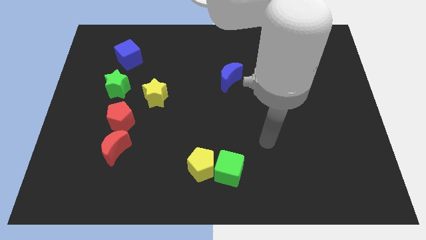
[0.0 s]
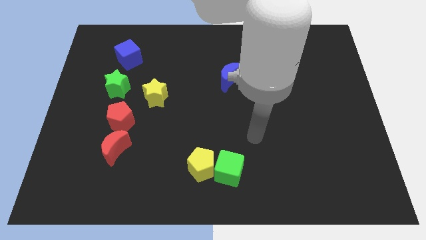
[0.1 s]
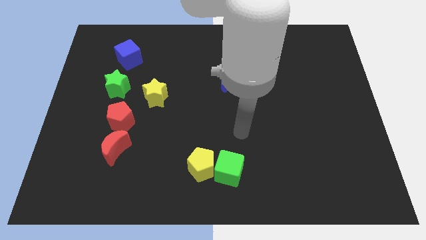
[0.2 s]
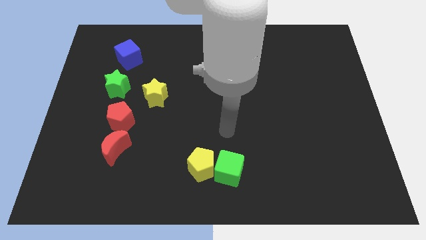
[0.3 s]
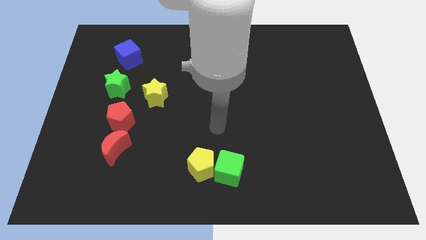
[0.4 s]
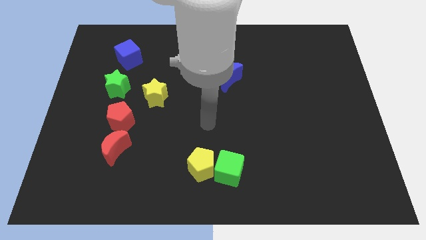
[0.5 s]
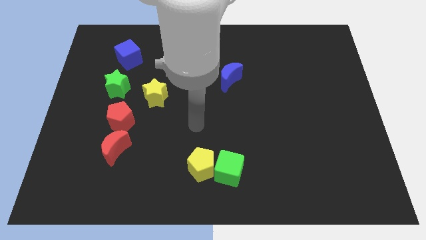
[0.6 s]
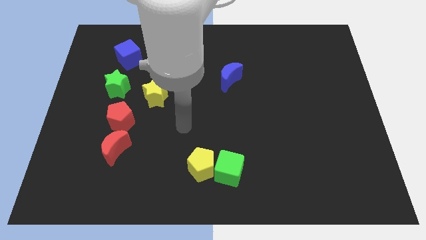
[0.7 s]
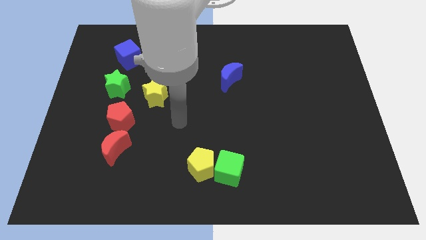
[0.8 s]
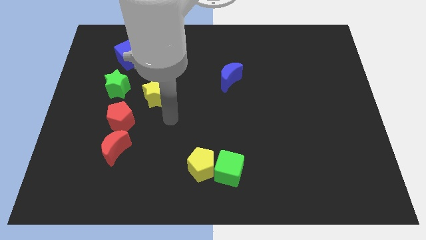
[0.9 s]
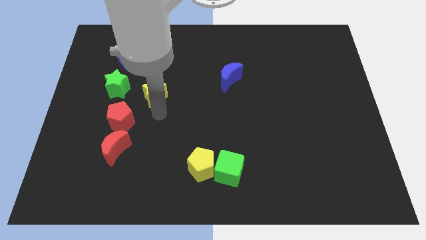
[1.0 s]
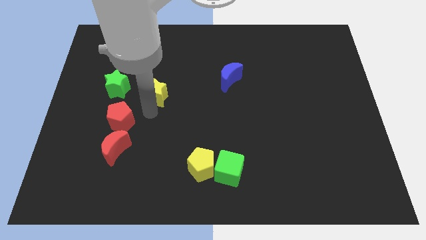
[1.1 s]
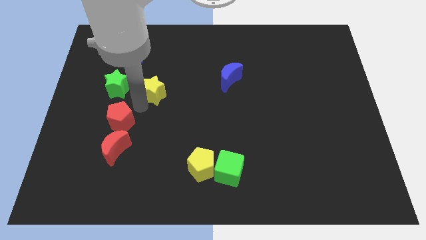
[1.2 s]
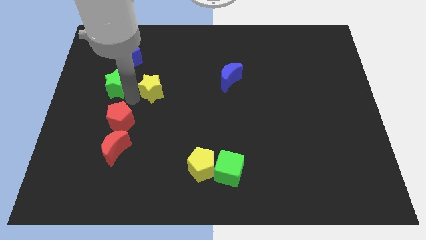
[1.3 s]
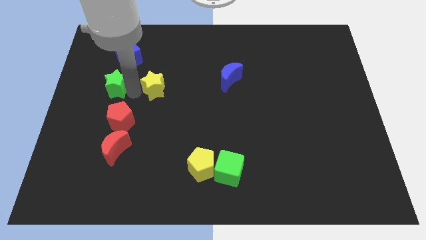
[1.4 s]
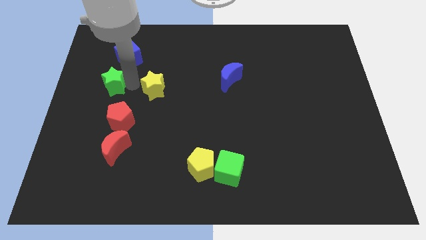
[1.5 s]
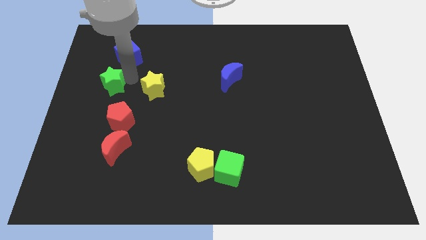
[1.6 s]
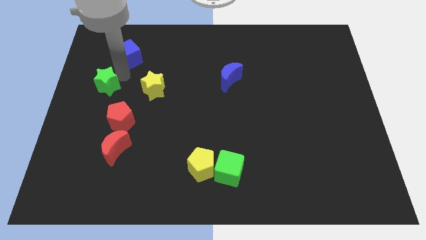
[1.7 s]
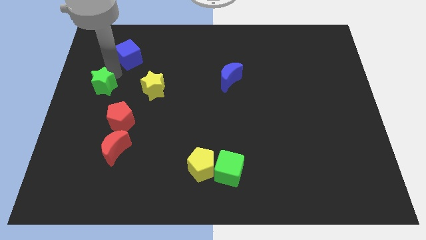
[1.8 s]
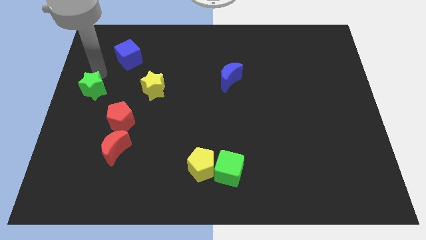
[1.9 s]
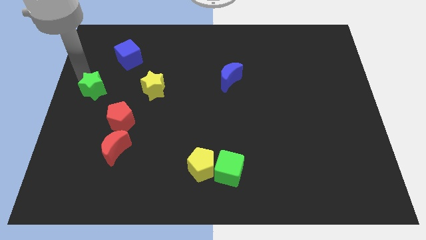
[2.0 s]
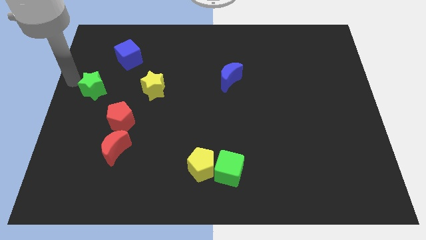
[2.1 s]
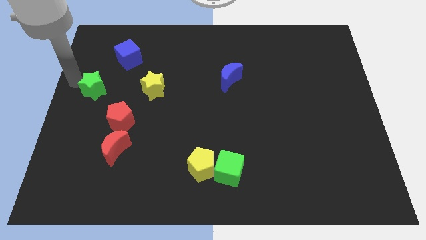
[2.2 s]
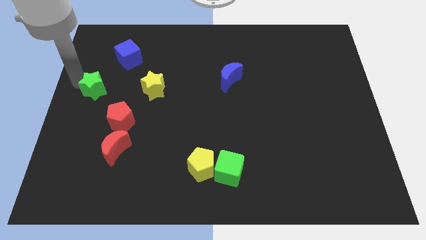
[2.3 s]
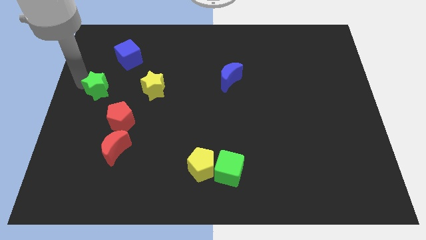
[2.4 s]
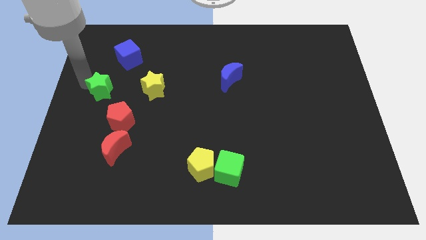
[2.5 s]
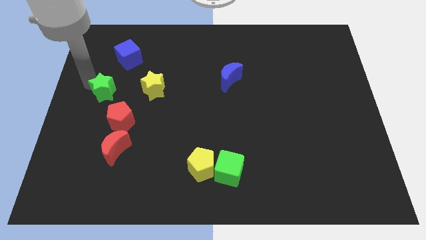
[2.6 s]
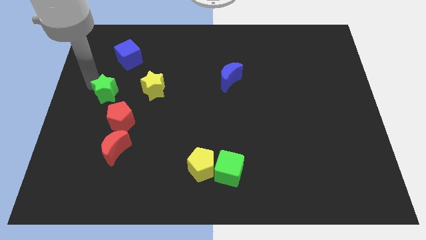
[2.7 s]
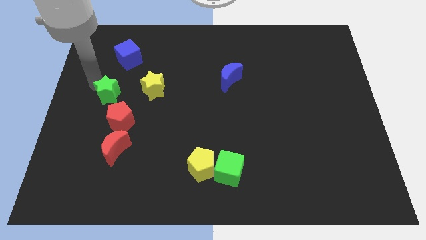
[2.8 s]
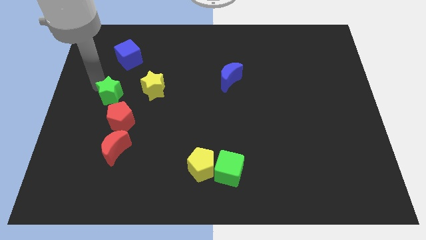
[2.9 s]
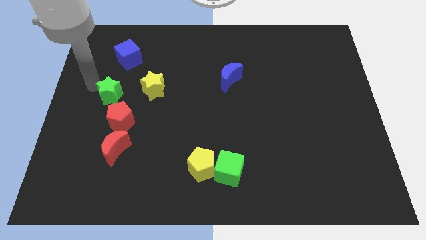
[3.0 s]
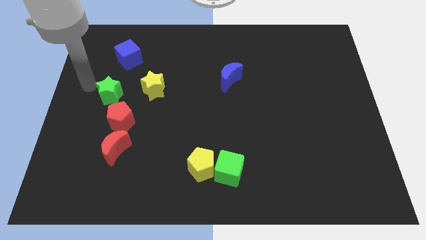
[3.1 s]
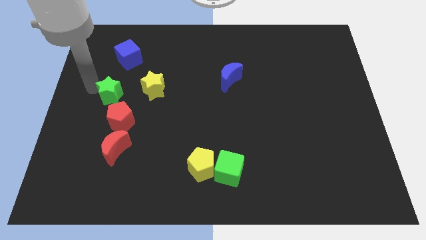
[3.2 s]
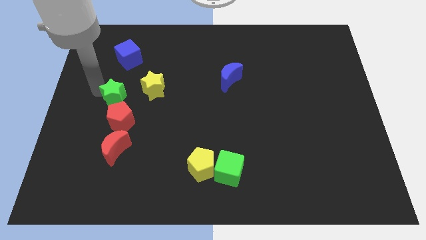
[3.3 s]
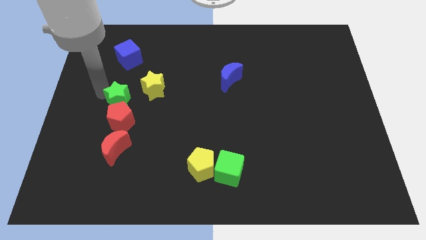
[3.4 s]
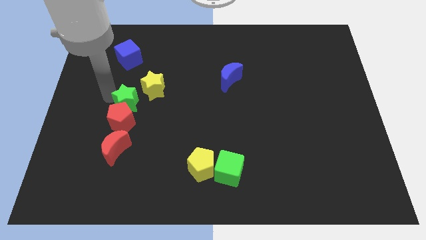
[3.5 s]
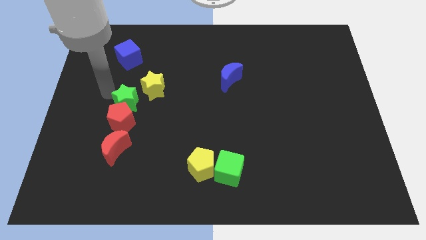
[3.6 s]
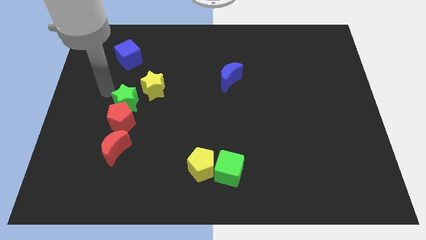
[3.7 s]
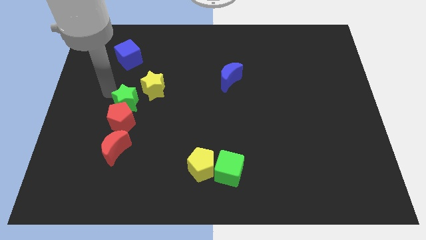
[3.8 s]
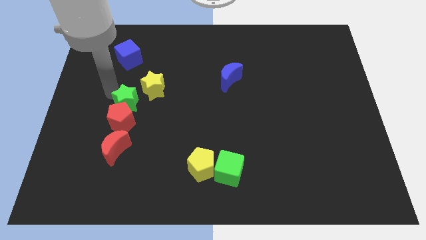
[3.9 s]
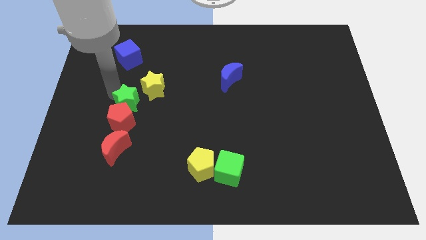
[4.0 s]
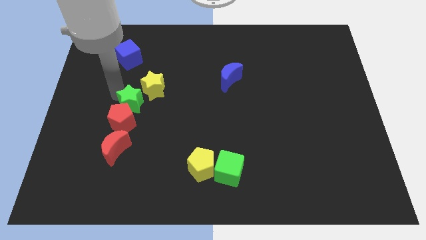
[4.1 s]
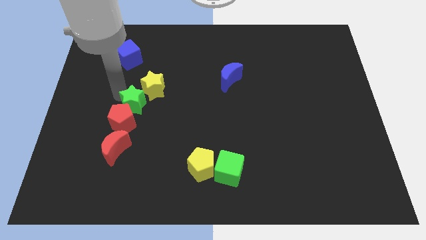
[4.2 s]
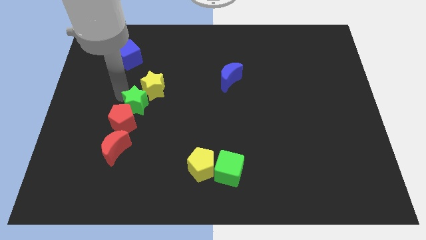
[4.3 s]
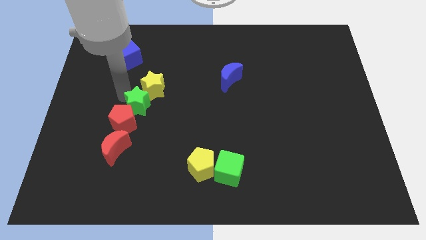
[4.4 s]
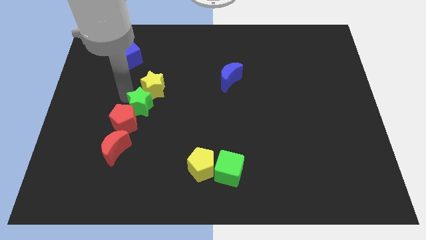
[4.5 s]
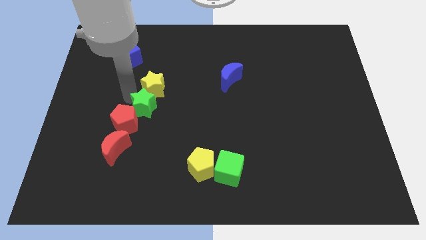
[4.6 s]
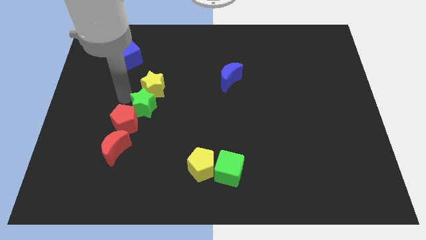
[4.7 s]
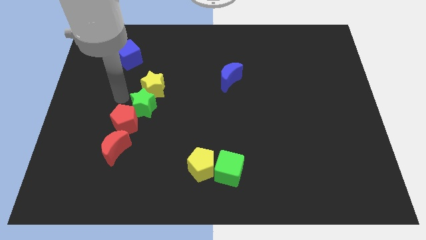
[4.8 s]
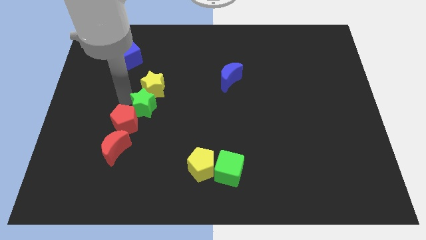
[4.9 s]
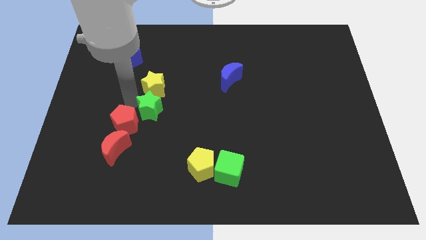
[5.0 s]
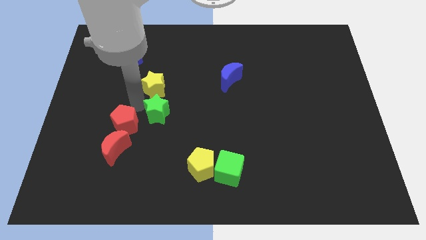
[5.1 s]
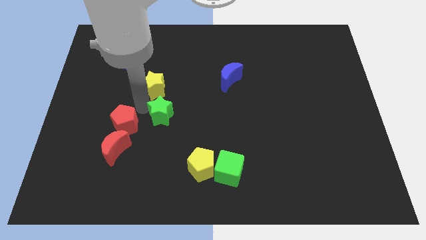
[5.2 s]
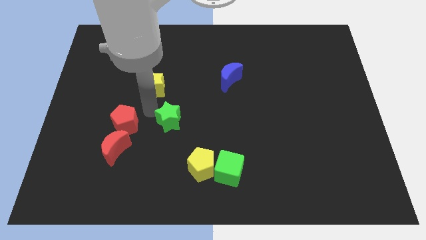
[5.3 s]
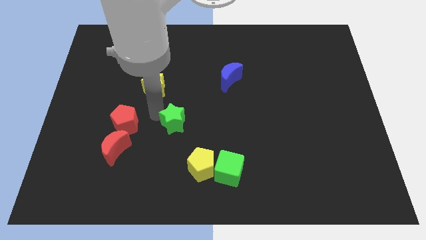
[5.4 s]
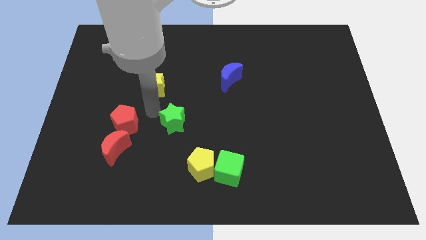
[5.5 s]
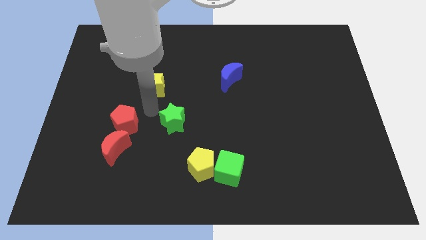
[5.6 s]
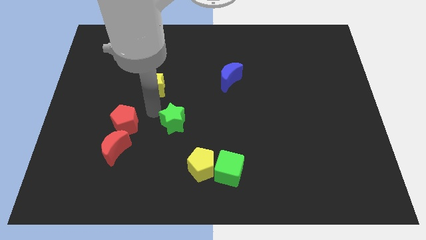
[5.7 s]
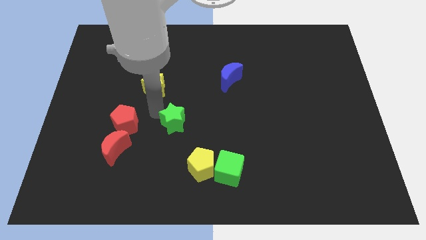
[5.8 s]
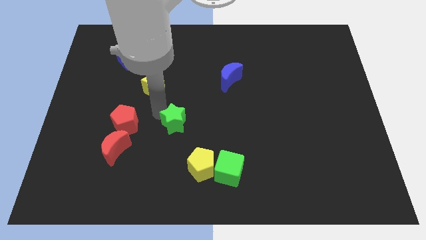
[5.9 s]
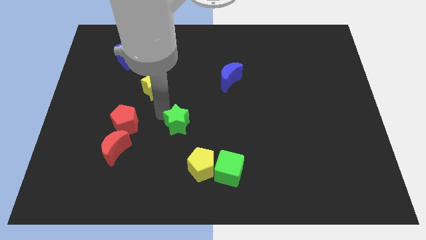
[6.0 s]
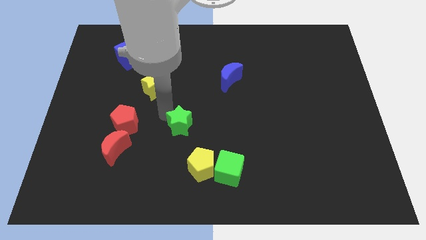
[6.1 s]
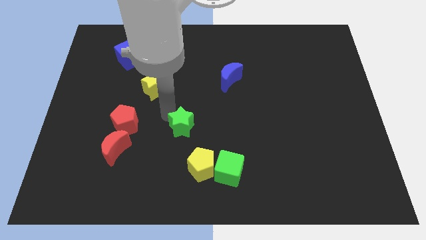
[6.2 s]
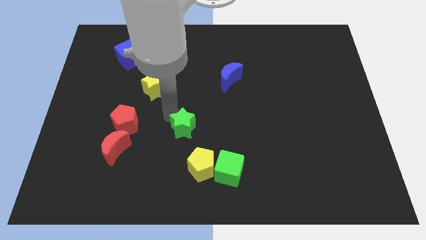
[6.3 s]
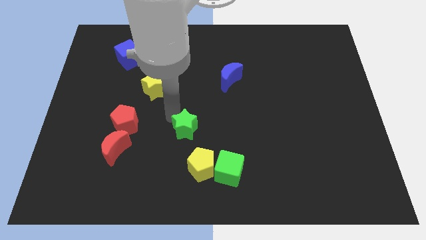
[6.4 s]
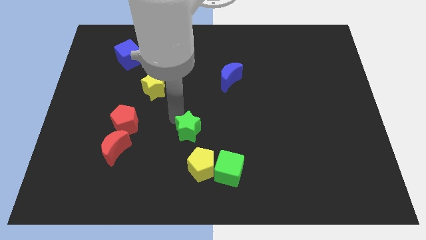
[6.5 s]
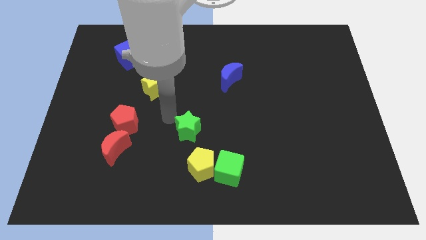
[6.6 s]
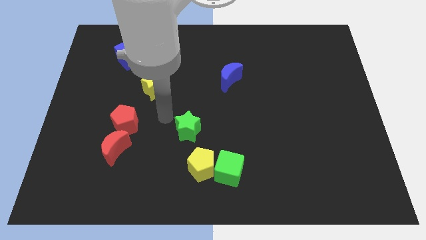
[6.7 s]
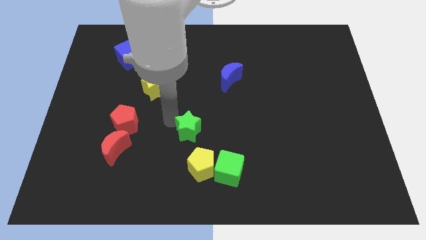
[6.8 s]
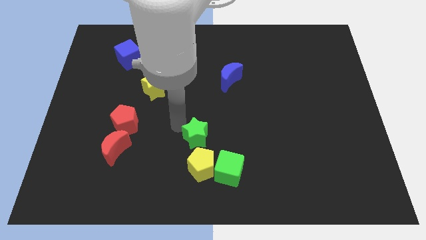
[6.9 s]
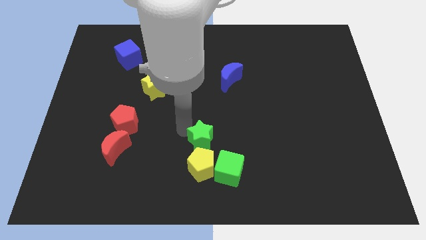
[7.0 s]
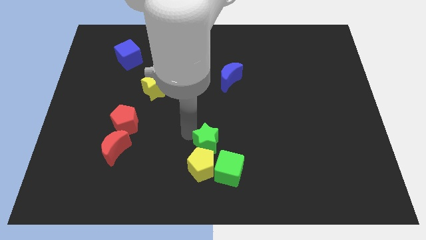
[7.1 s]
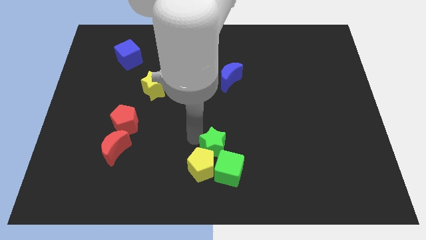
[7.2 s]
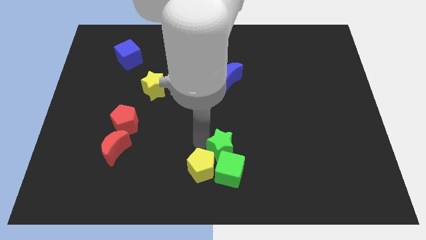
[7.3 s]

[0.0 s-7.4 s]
put the green star right of the yellow pentagon
